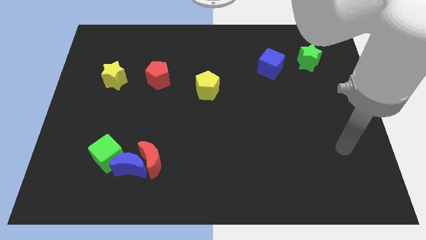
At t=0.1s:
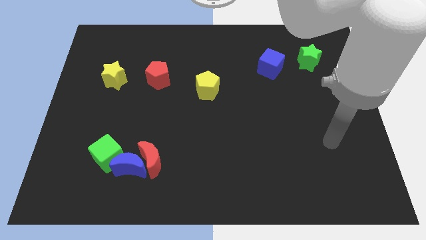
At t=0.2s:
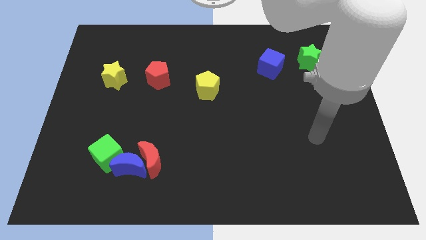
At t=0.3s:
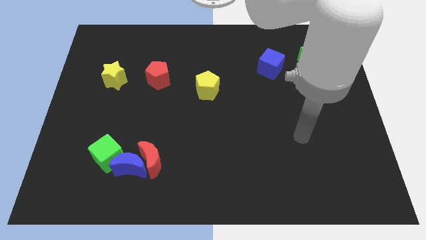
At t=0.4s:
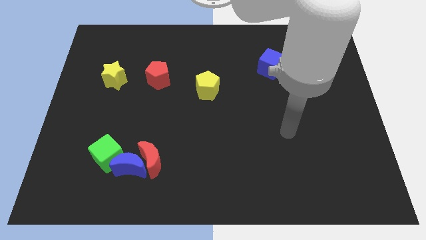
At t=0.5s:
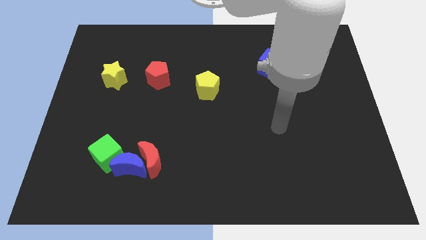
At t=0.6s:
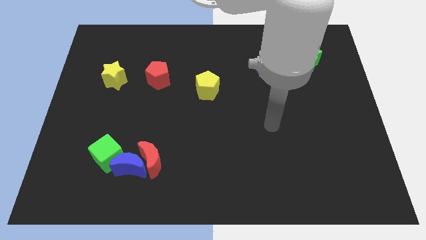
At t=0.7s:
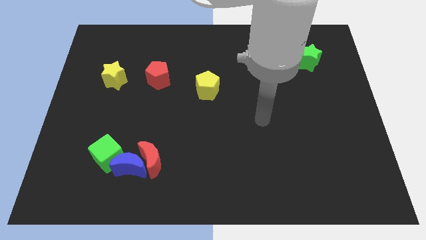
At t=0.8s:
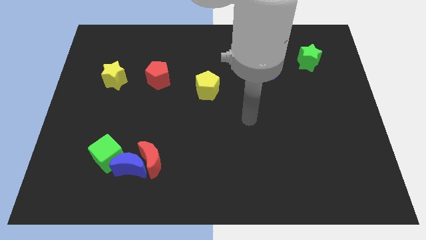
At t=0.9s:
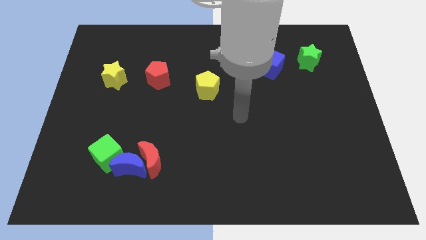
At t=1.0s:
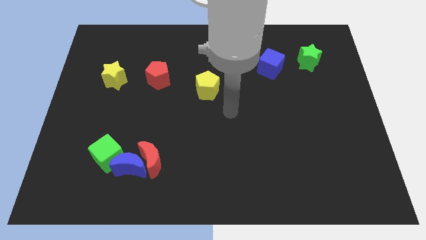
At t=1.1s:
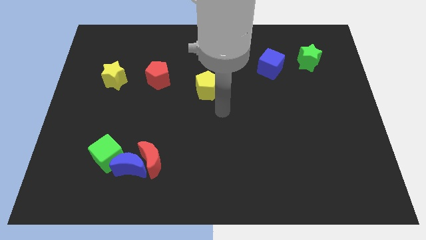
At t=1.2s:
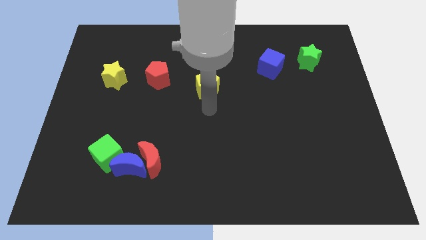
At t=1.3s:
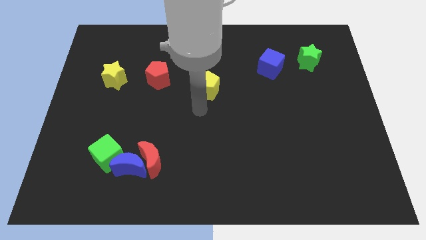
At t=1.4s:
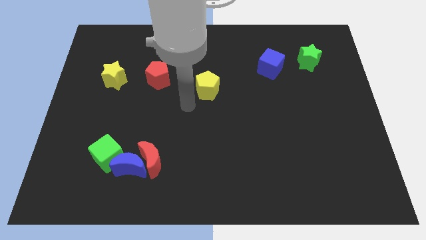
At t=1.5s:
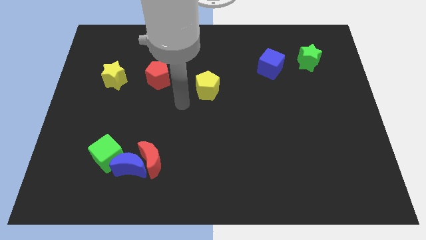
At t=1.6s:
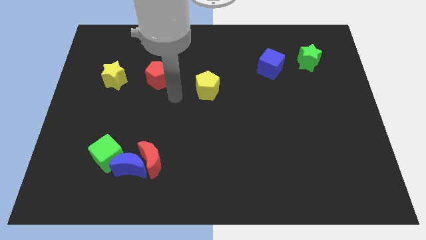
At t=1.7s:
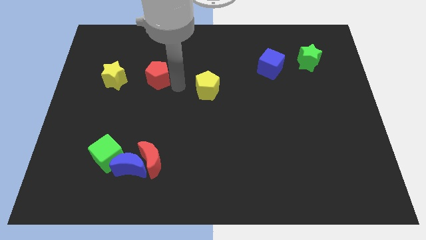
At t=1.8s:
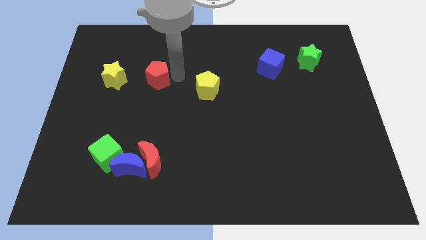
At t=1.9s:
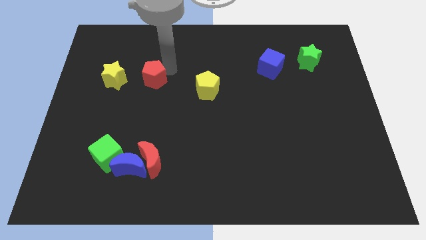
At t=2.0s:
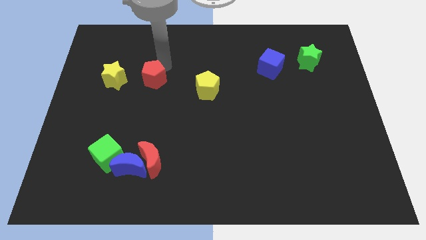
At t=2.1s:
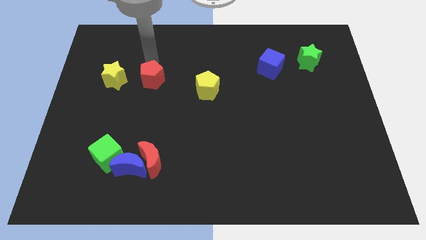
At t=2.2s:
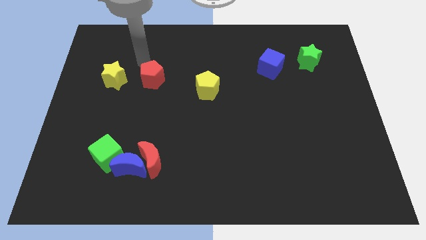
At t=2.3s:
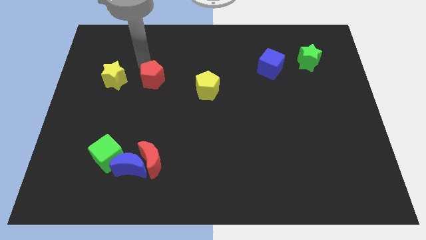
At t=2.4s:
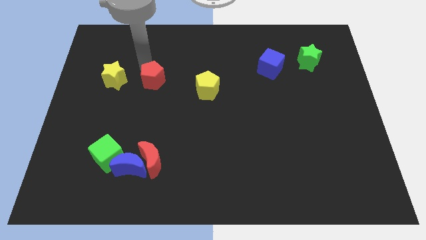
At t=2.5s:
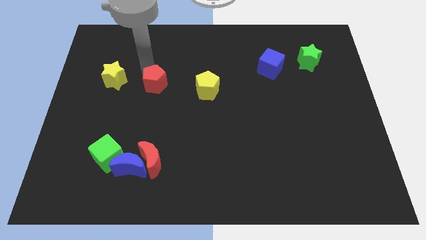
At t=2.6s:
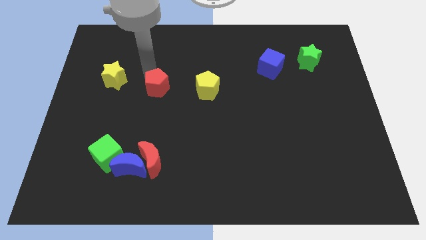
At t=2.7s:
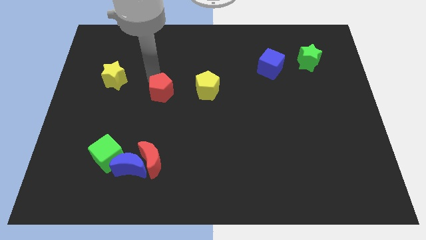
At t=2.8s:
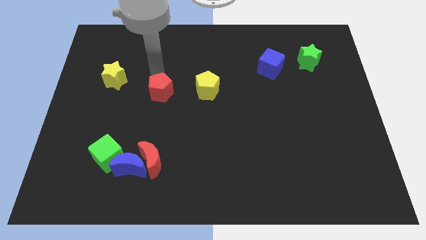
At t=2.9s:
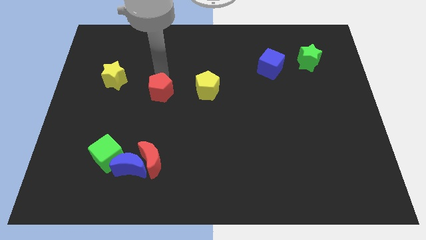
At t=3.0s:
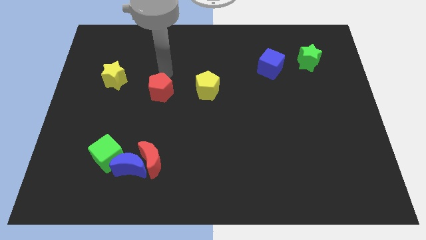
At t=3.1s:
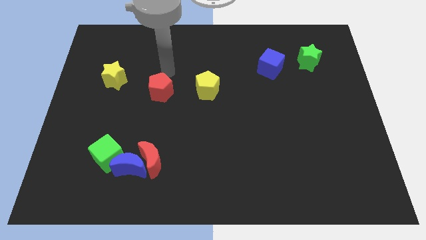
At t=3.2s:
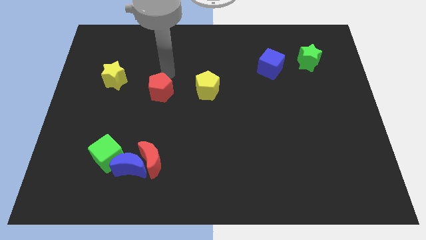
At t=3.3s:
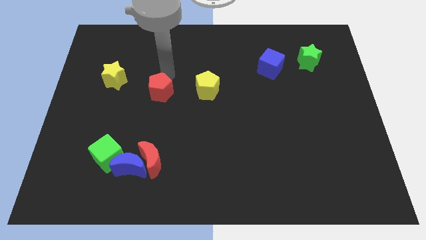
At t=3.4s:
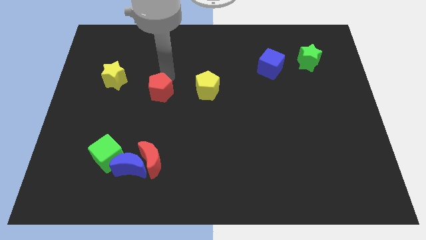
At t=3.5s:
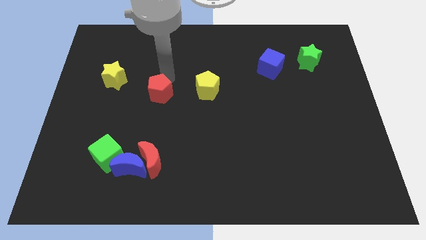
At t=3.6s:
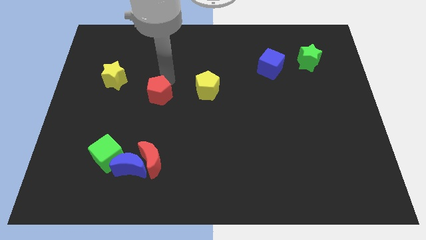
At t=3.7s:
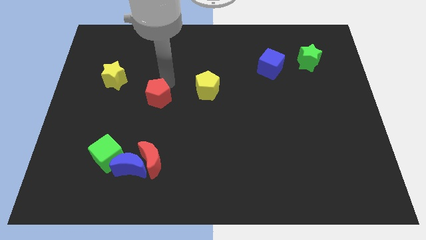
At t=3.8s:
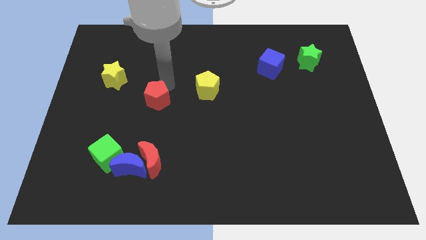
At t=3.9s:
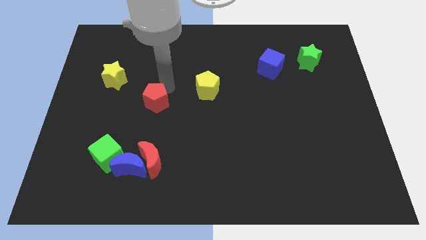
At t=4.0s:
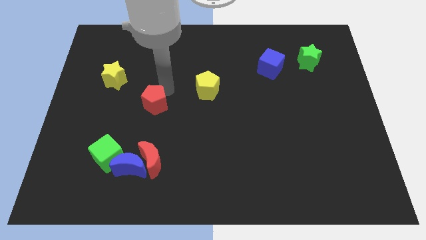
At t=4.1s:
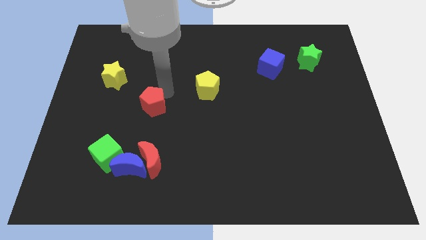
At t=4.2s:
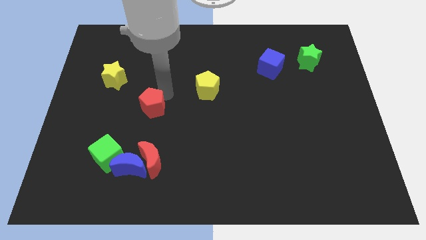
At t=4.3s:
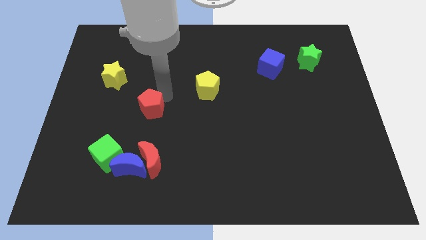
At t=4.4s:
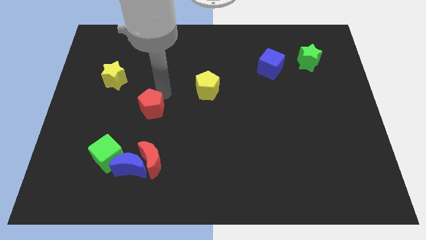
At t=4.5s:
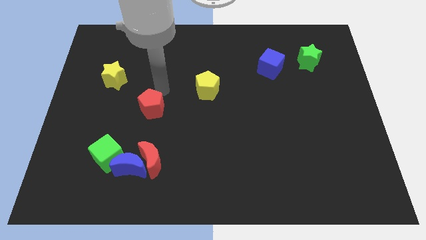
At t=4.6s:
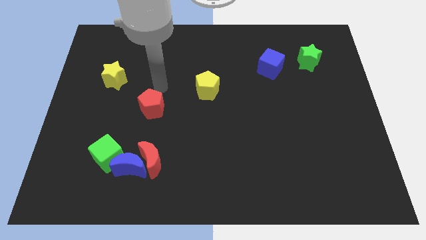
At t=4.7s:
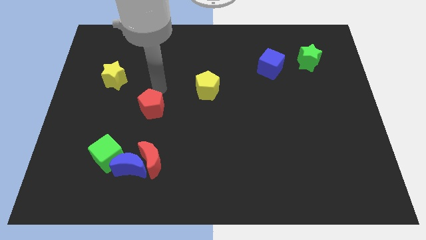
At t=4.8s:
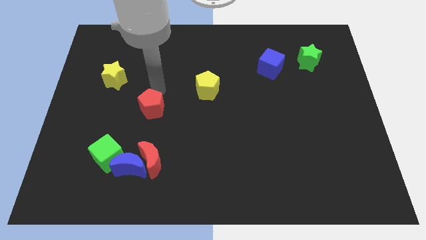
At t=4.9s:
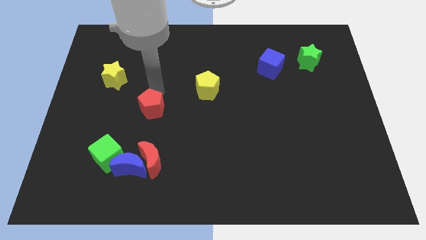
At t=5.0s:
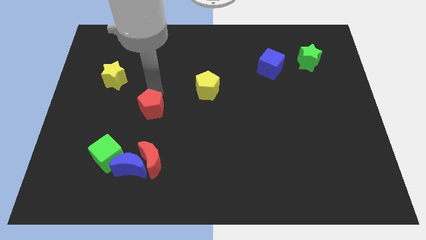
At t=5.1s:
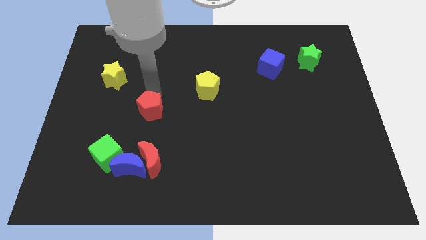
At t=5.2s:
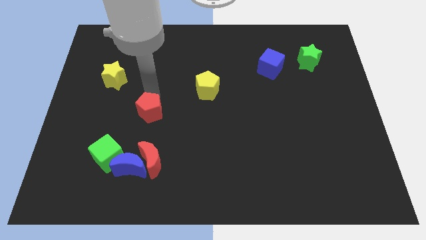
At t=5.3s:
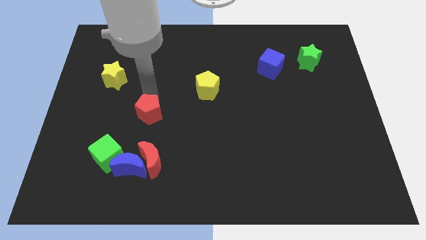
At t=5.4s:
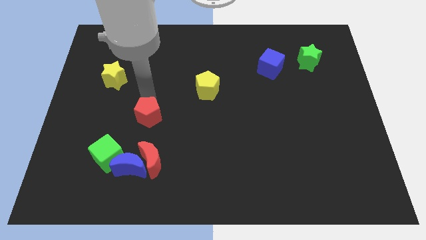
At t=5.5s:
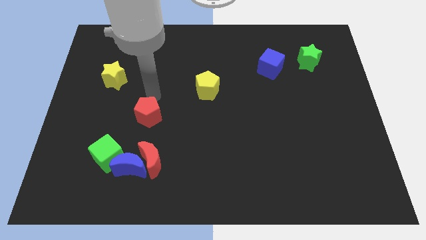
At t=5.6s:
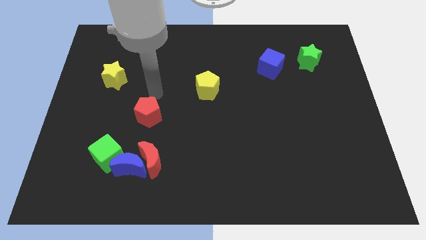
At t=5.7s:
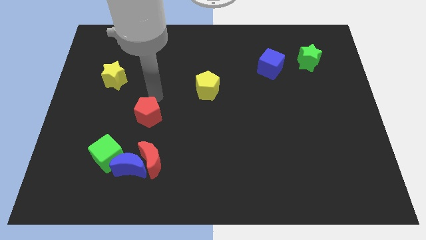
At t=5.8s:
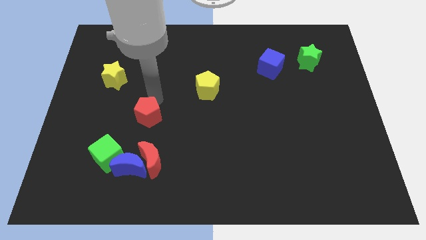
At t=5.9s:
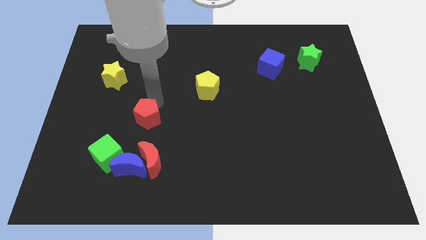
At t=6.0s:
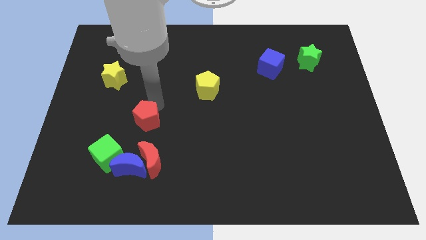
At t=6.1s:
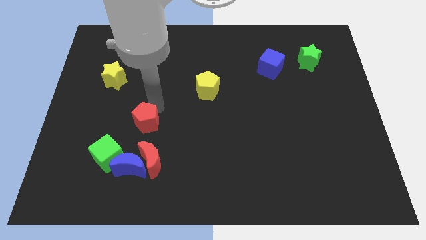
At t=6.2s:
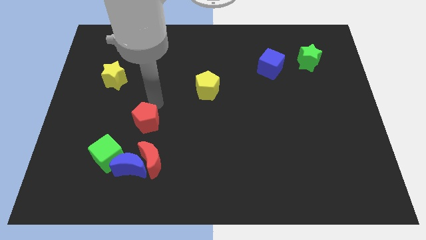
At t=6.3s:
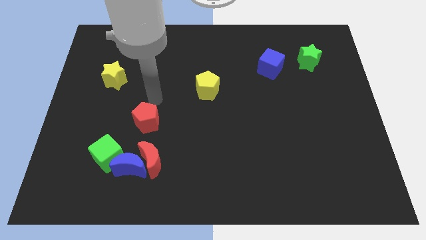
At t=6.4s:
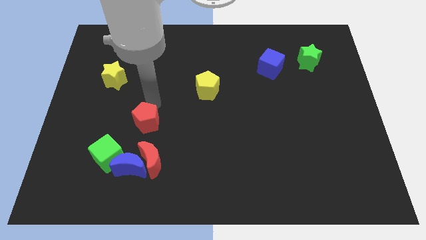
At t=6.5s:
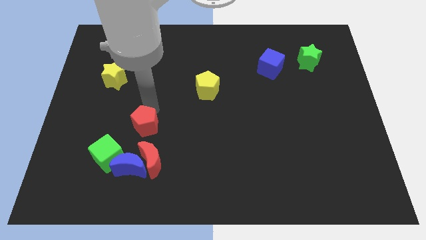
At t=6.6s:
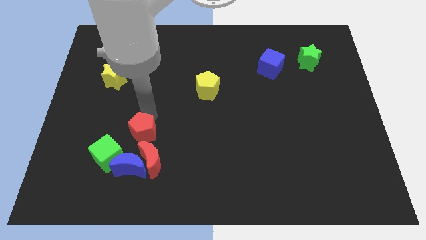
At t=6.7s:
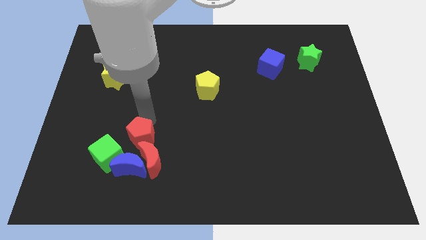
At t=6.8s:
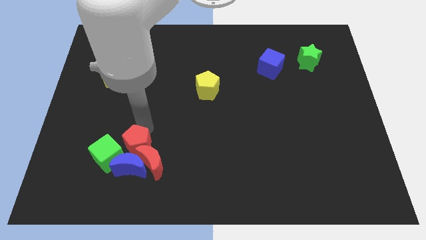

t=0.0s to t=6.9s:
move the red pentagon to the blue moon

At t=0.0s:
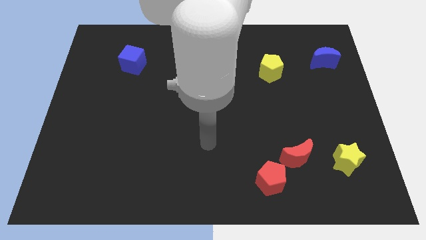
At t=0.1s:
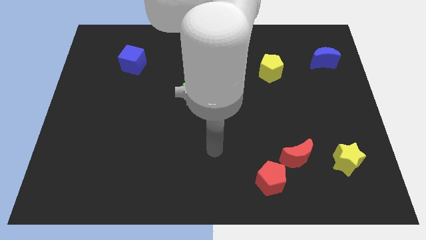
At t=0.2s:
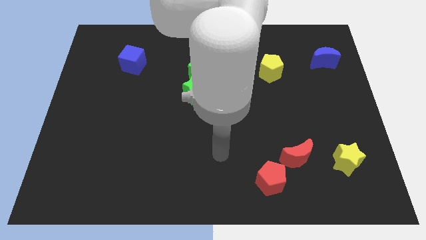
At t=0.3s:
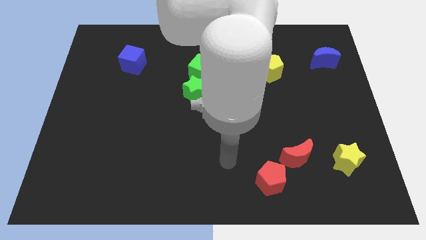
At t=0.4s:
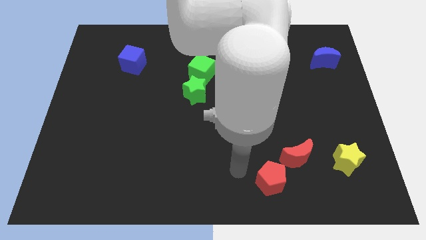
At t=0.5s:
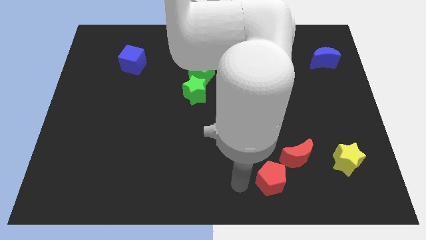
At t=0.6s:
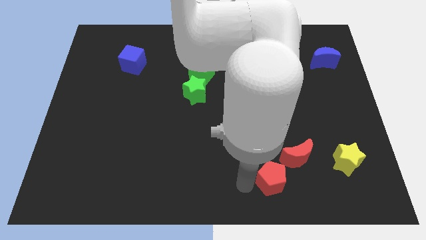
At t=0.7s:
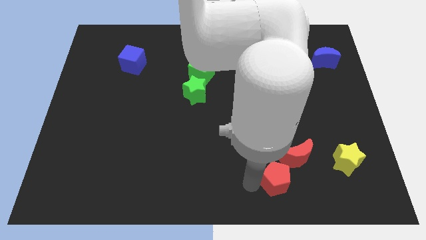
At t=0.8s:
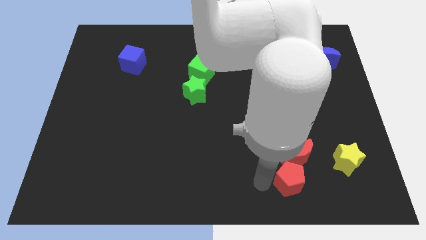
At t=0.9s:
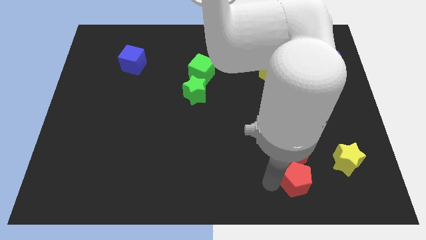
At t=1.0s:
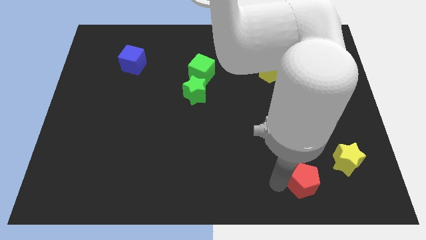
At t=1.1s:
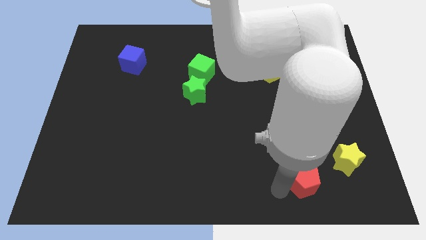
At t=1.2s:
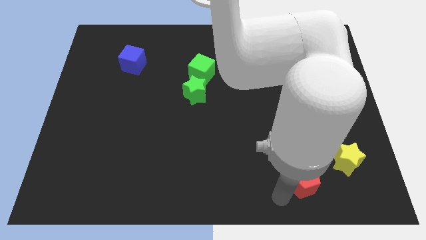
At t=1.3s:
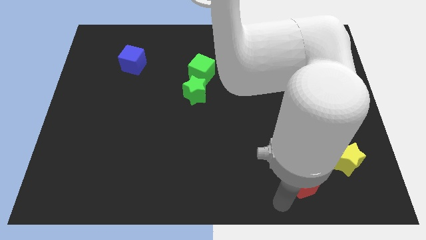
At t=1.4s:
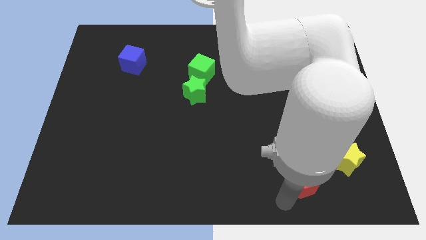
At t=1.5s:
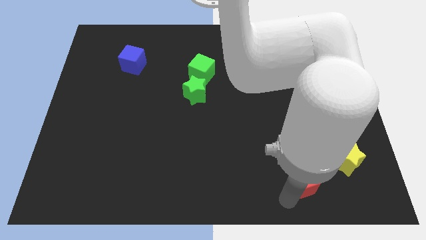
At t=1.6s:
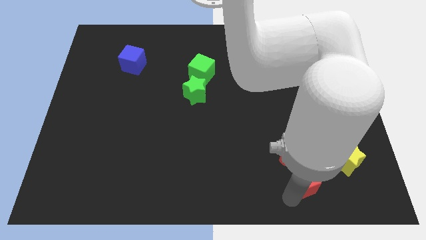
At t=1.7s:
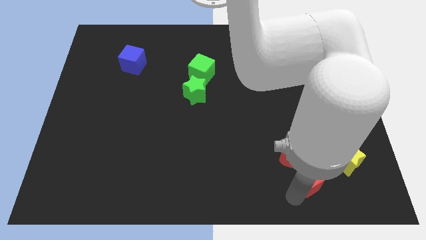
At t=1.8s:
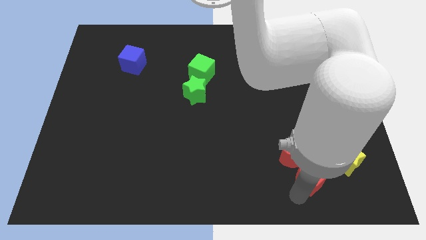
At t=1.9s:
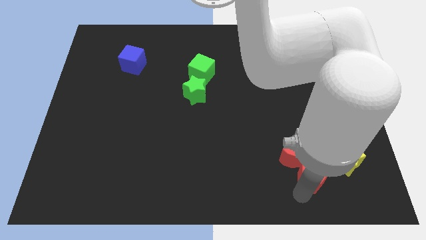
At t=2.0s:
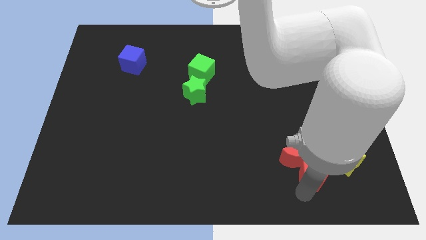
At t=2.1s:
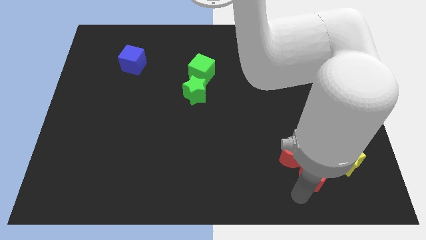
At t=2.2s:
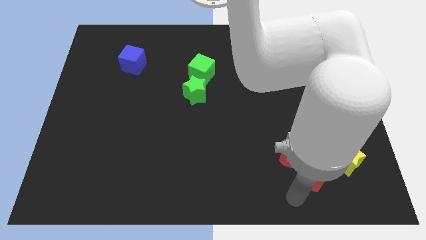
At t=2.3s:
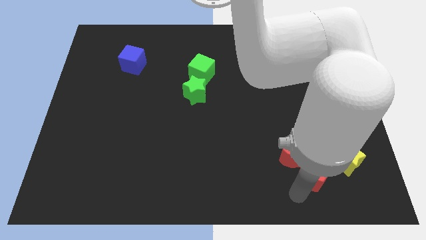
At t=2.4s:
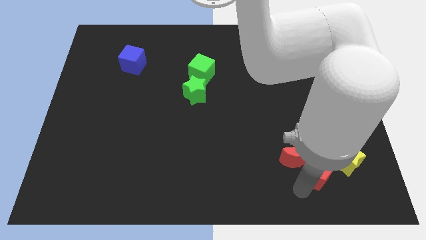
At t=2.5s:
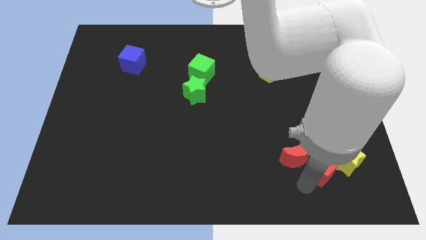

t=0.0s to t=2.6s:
slide the red pentagon next to the yellow star
